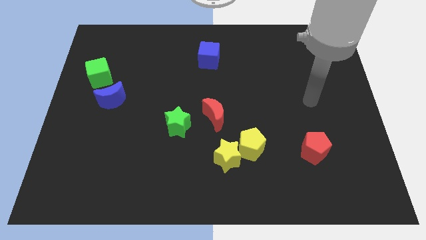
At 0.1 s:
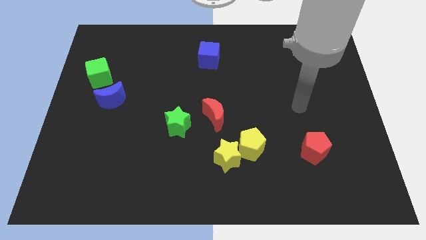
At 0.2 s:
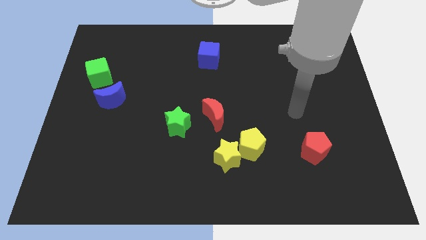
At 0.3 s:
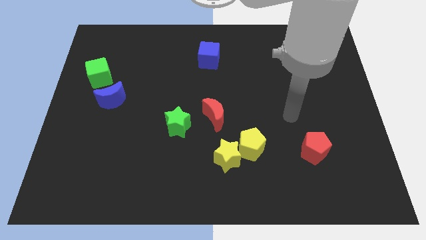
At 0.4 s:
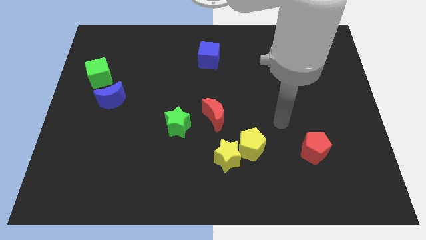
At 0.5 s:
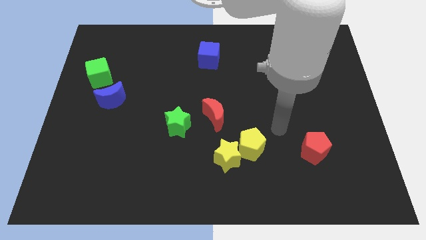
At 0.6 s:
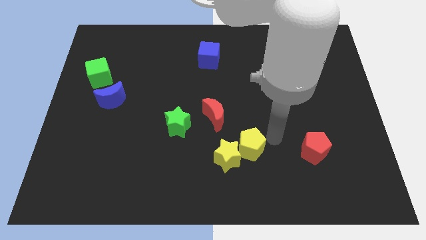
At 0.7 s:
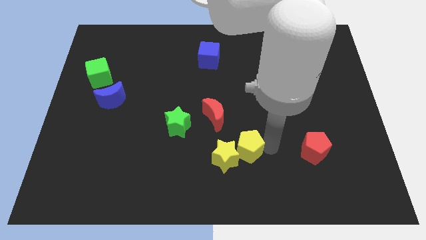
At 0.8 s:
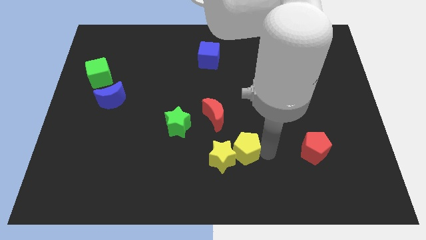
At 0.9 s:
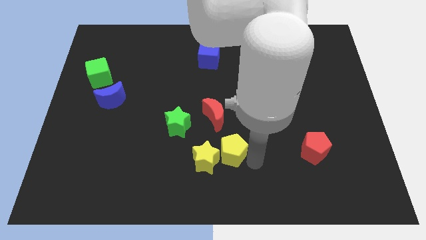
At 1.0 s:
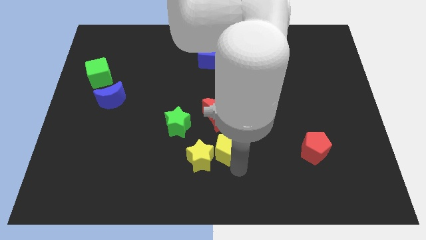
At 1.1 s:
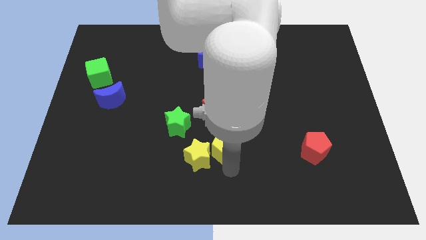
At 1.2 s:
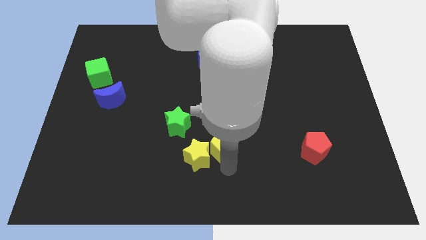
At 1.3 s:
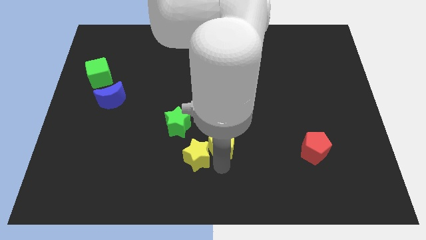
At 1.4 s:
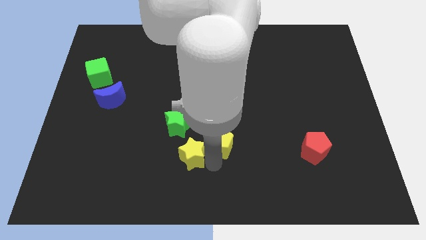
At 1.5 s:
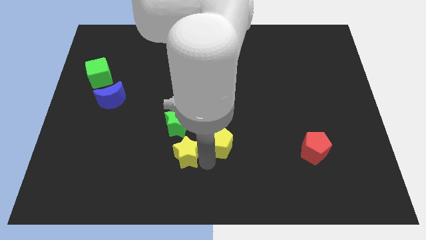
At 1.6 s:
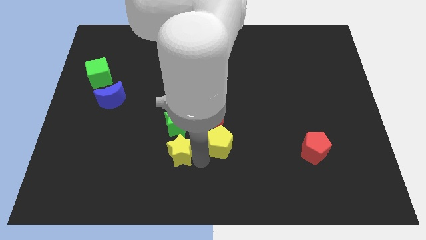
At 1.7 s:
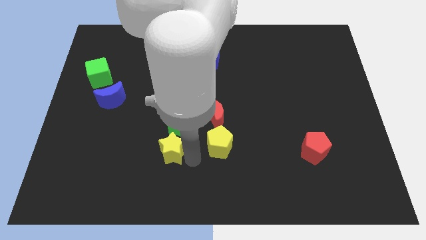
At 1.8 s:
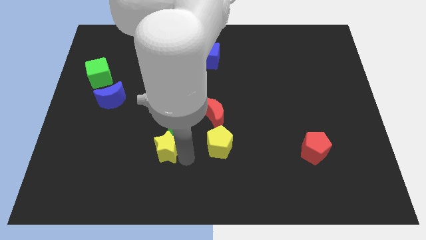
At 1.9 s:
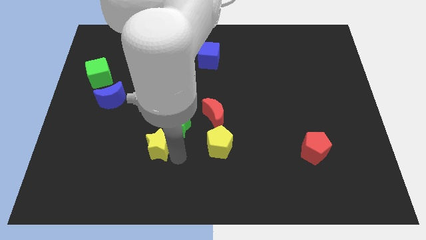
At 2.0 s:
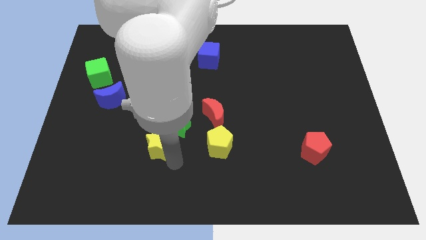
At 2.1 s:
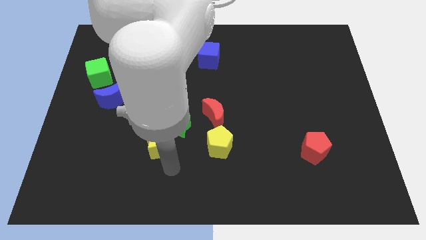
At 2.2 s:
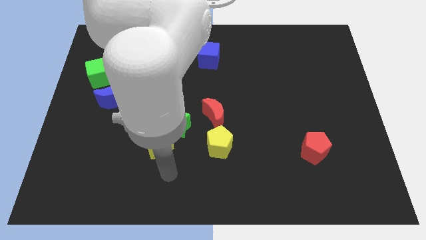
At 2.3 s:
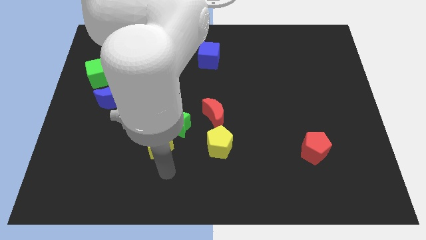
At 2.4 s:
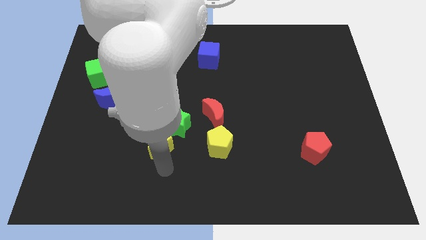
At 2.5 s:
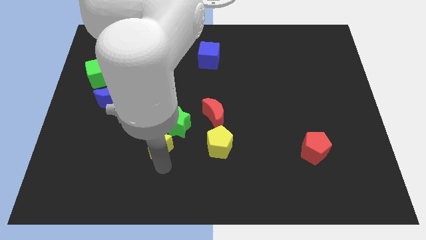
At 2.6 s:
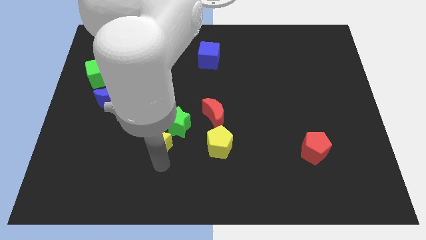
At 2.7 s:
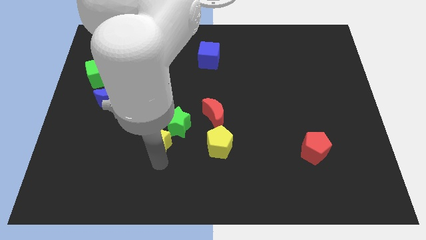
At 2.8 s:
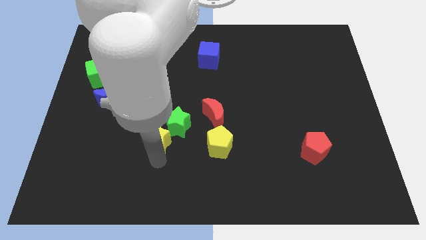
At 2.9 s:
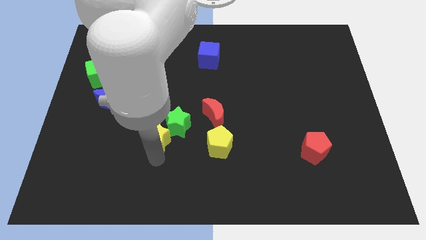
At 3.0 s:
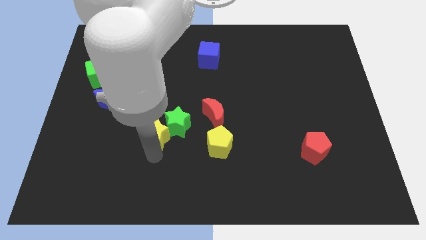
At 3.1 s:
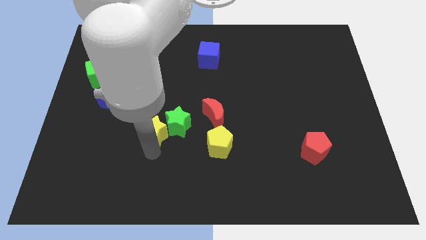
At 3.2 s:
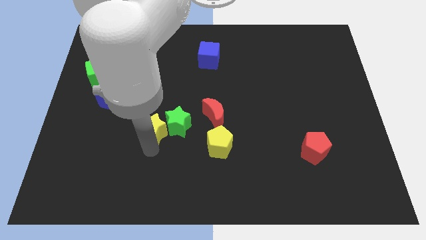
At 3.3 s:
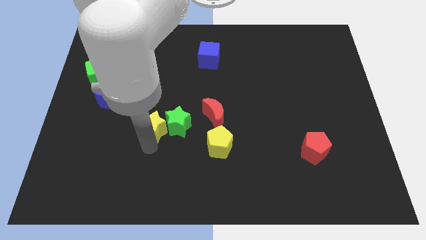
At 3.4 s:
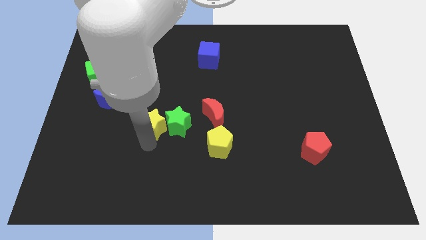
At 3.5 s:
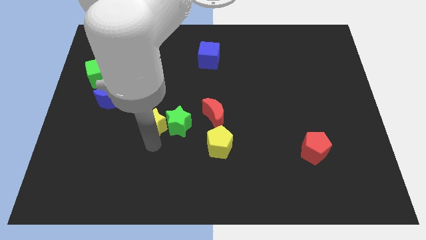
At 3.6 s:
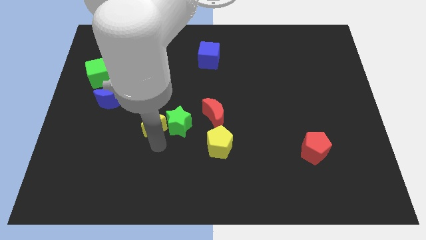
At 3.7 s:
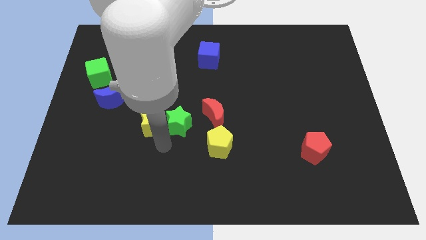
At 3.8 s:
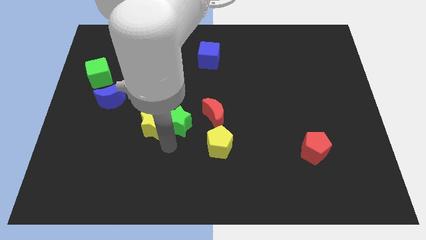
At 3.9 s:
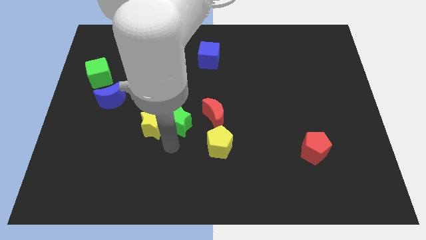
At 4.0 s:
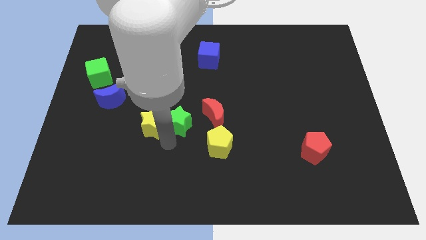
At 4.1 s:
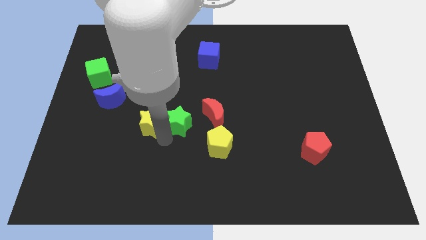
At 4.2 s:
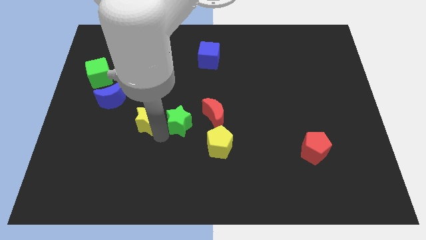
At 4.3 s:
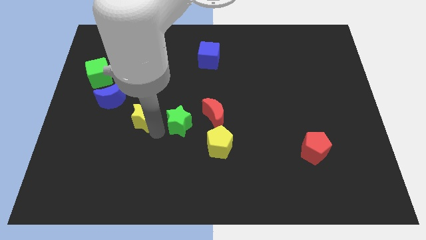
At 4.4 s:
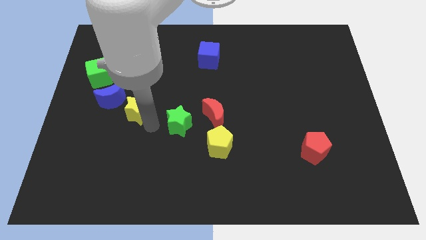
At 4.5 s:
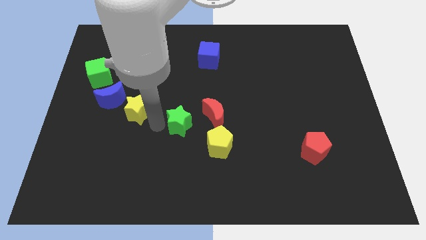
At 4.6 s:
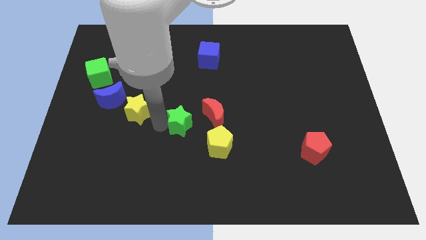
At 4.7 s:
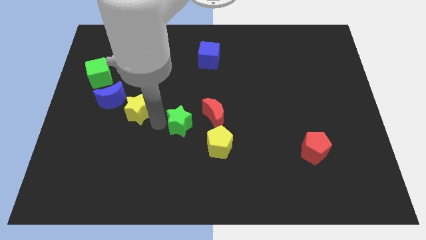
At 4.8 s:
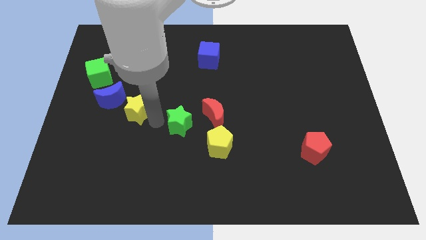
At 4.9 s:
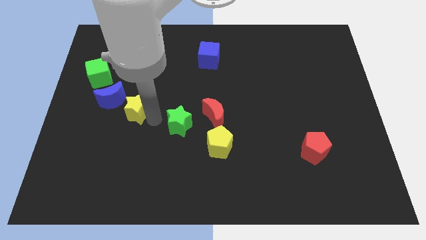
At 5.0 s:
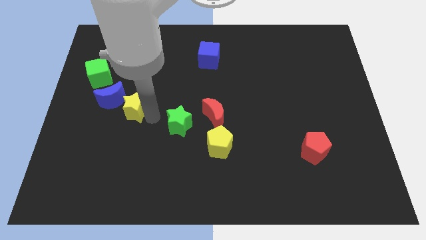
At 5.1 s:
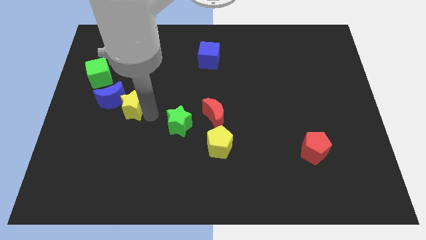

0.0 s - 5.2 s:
move the yellow star towards the blue moon

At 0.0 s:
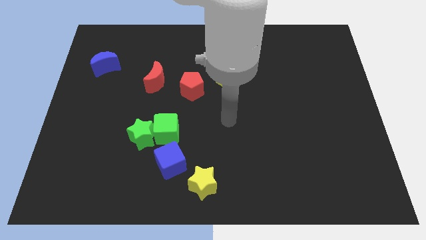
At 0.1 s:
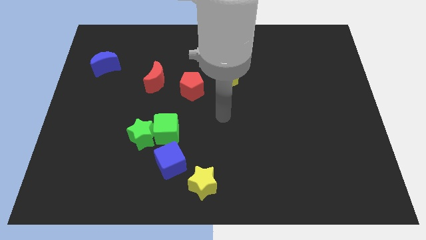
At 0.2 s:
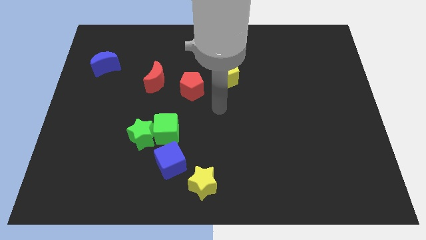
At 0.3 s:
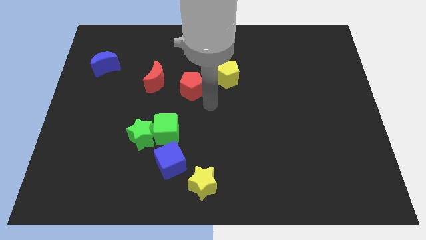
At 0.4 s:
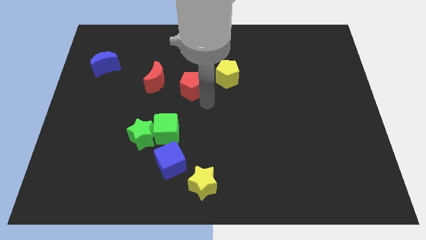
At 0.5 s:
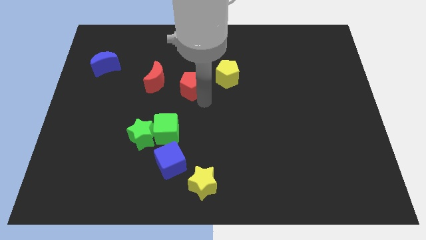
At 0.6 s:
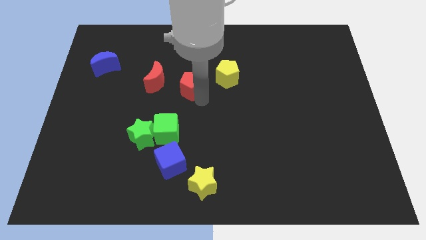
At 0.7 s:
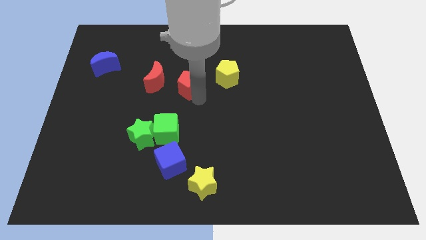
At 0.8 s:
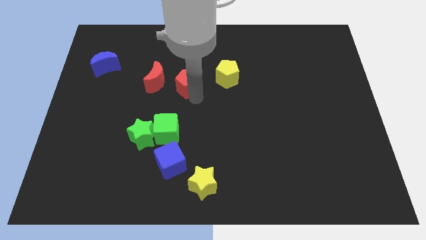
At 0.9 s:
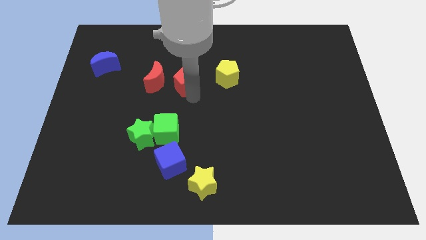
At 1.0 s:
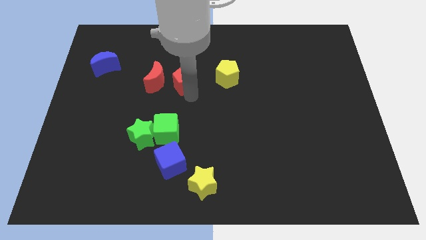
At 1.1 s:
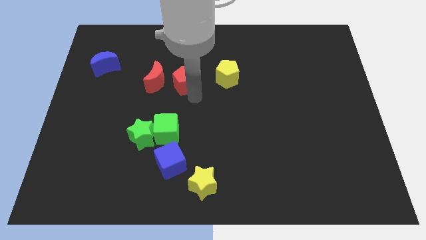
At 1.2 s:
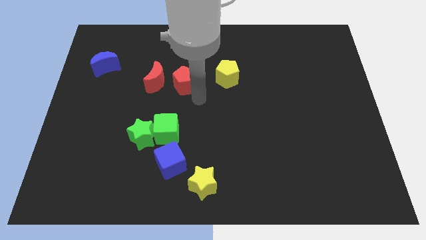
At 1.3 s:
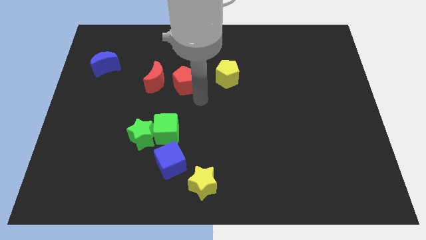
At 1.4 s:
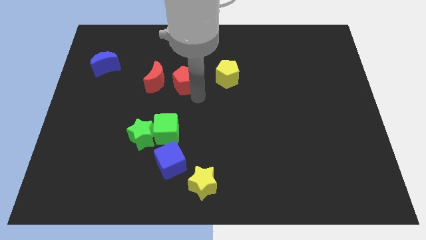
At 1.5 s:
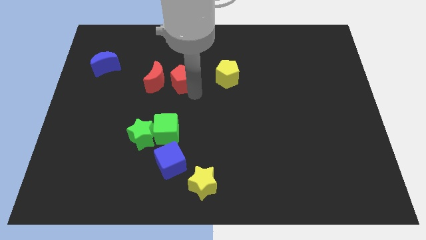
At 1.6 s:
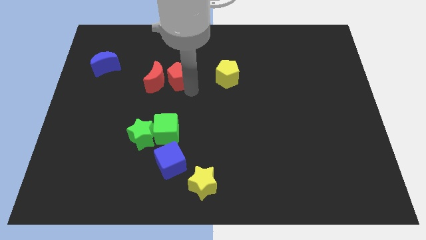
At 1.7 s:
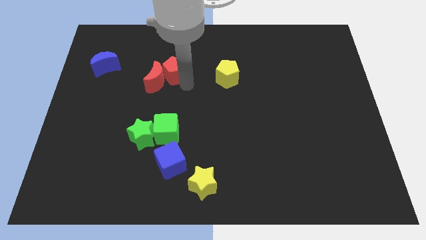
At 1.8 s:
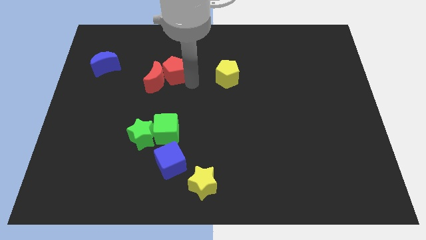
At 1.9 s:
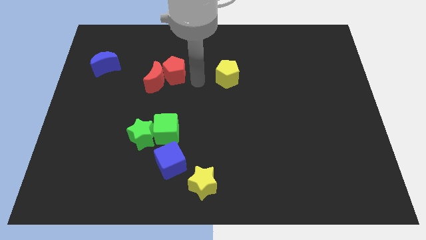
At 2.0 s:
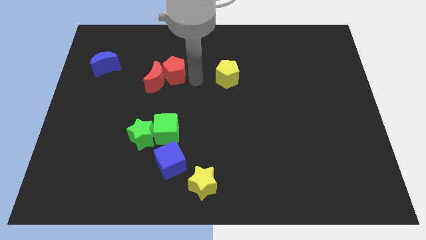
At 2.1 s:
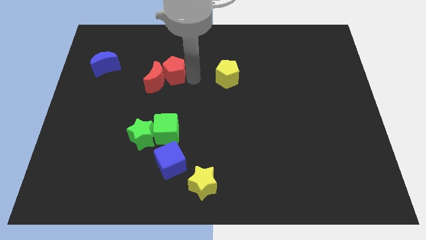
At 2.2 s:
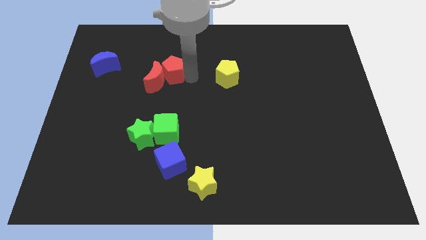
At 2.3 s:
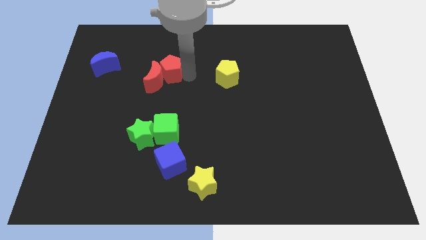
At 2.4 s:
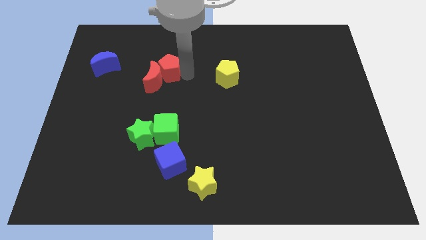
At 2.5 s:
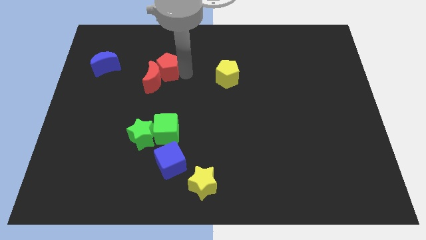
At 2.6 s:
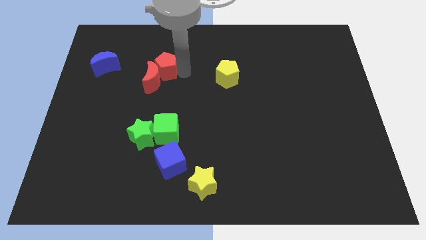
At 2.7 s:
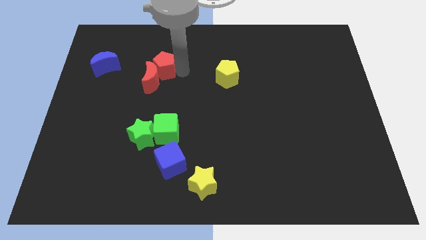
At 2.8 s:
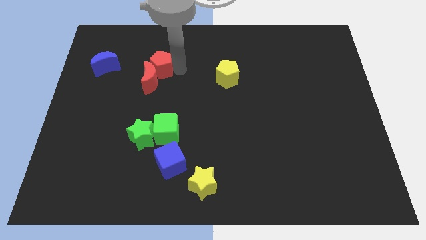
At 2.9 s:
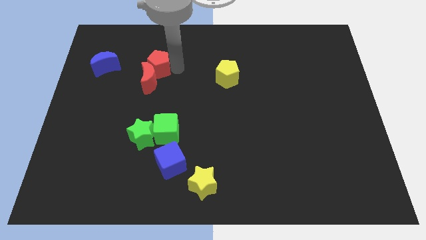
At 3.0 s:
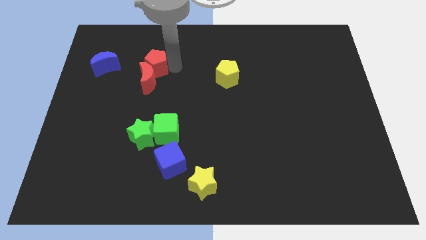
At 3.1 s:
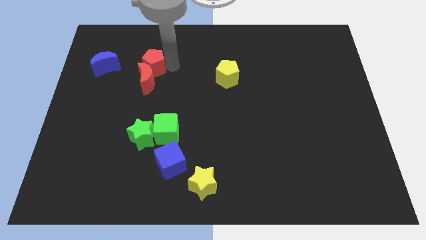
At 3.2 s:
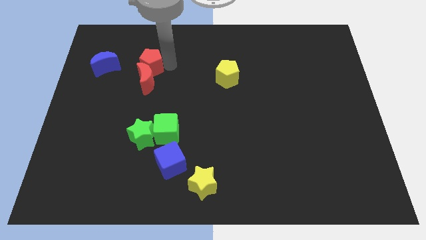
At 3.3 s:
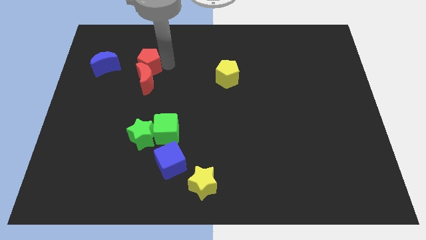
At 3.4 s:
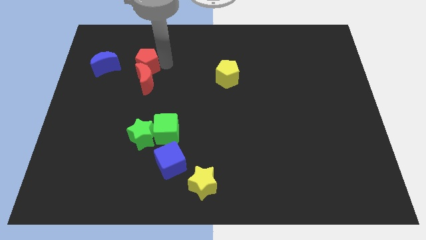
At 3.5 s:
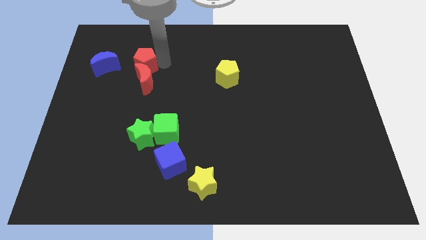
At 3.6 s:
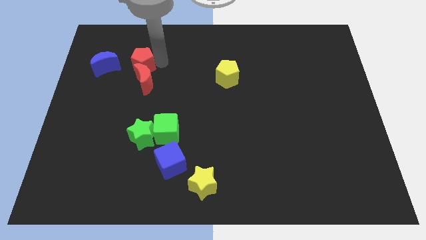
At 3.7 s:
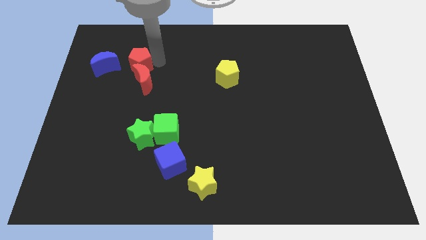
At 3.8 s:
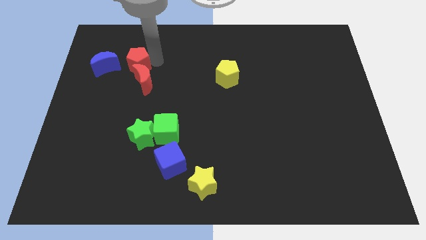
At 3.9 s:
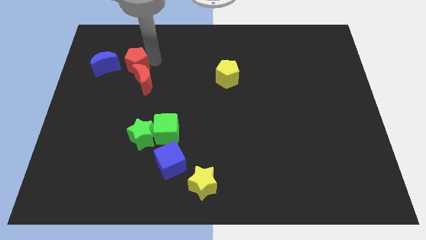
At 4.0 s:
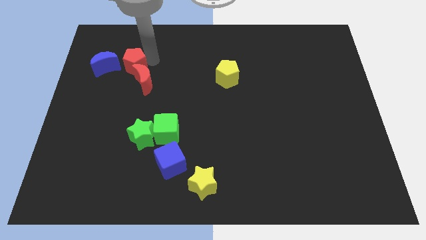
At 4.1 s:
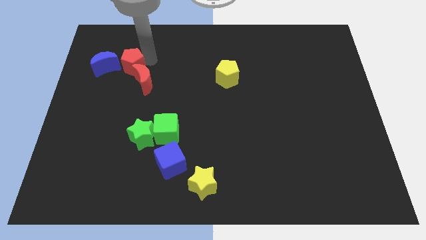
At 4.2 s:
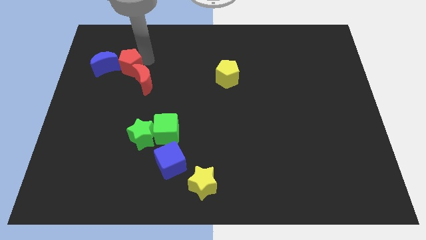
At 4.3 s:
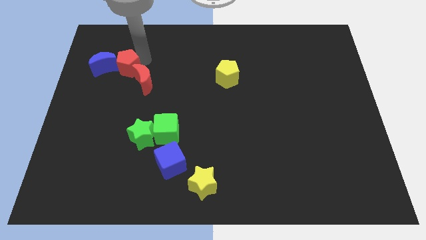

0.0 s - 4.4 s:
move the red pentagon next to the blue moon
